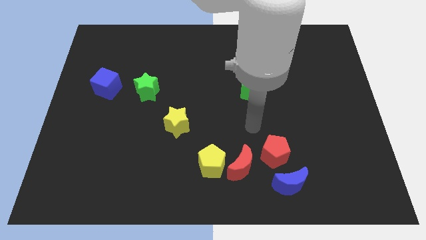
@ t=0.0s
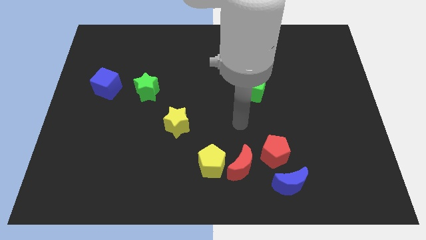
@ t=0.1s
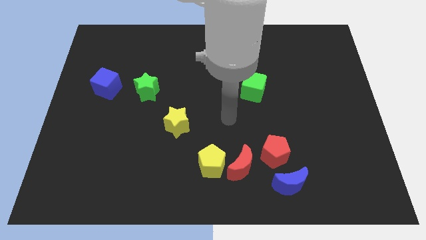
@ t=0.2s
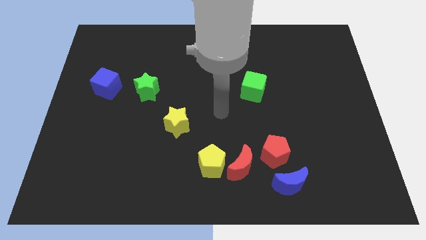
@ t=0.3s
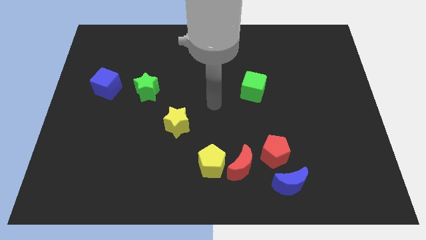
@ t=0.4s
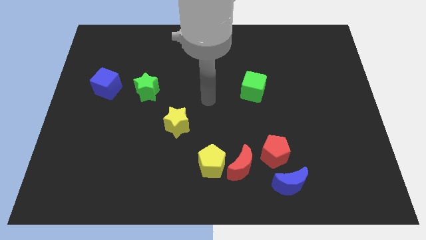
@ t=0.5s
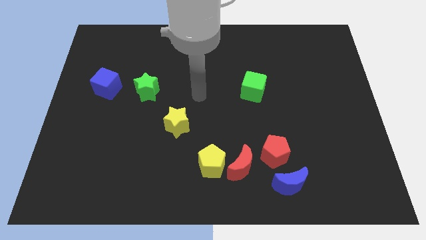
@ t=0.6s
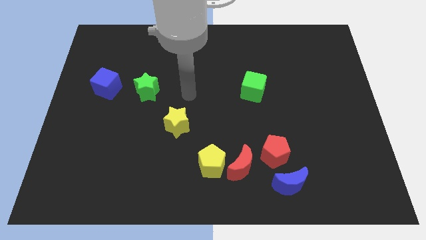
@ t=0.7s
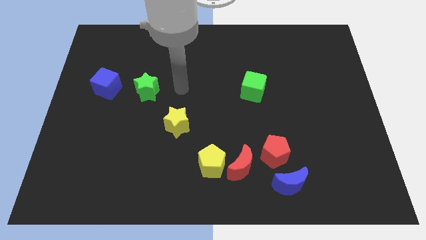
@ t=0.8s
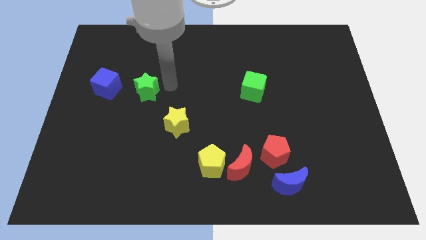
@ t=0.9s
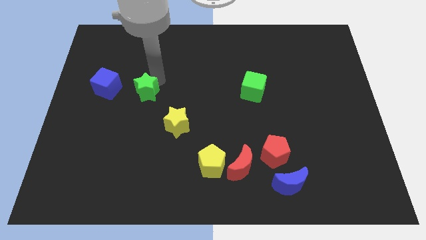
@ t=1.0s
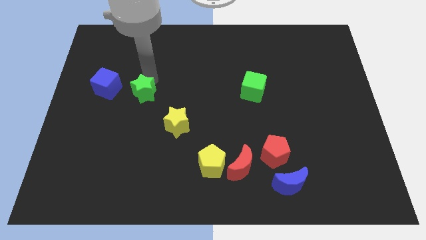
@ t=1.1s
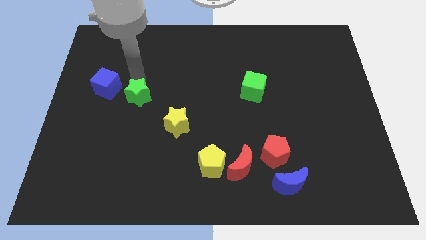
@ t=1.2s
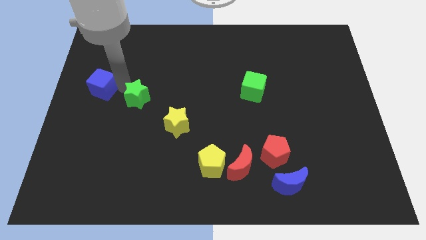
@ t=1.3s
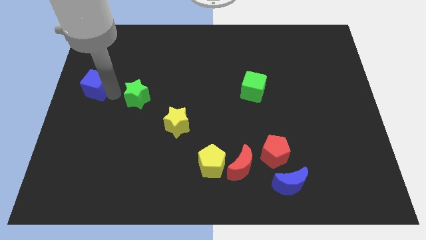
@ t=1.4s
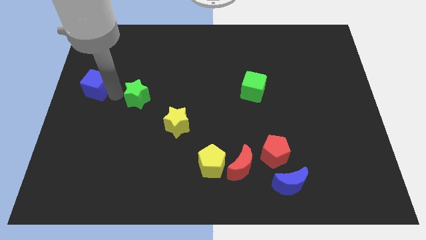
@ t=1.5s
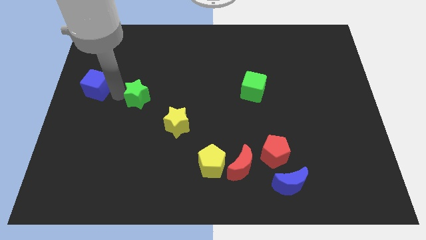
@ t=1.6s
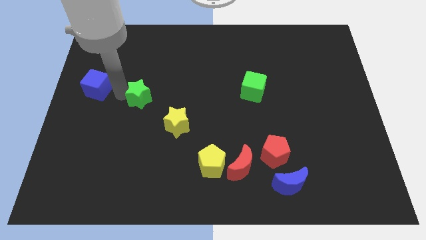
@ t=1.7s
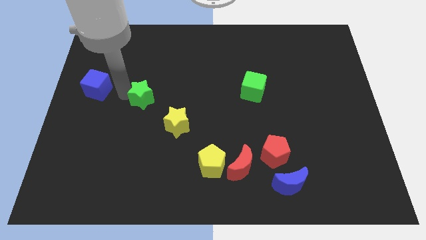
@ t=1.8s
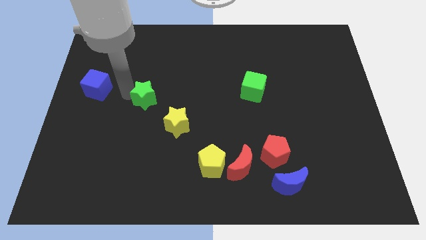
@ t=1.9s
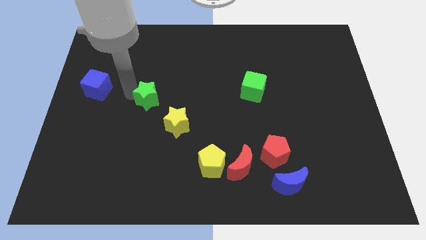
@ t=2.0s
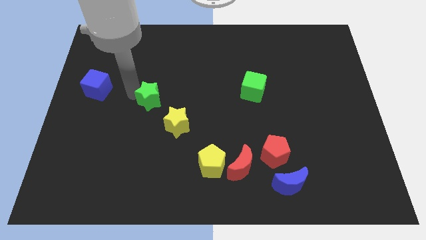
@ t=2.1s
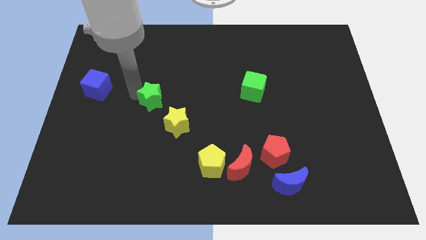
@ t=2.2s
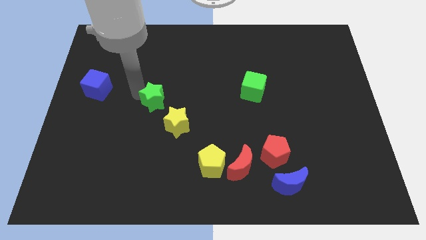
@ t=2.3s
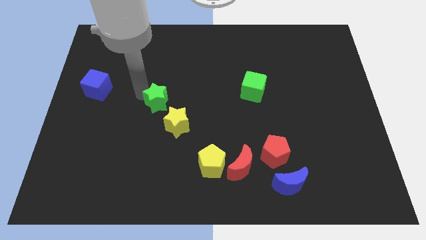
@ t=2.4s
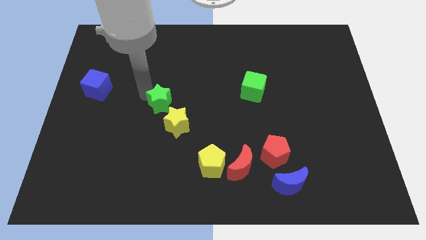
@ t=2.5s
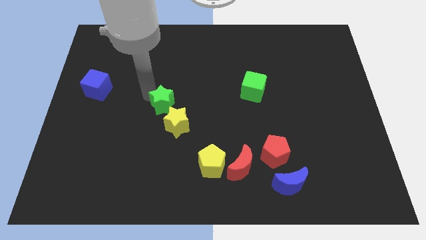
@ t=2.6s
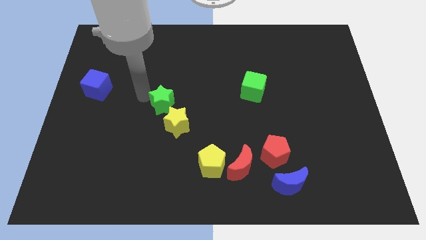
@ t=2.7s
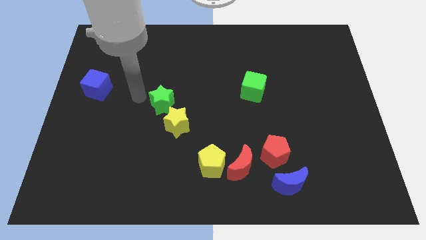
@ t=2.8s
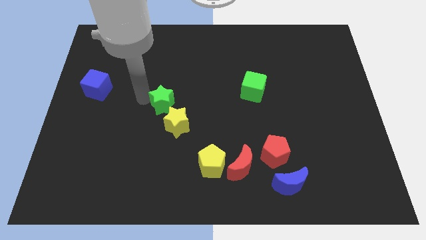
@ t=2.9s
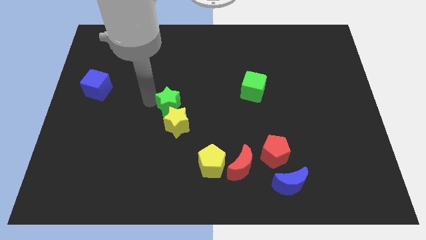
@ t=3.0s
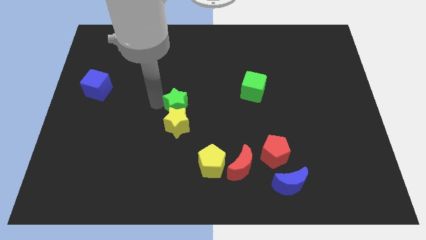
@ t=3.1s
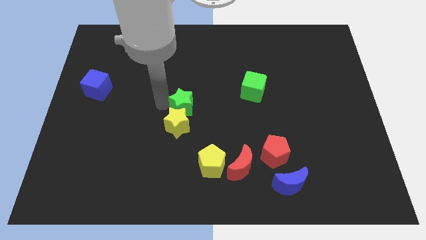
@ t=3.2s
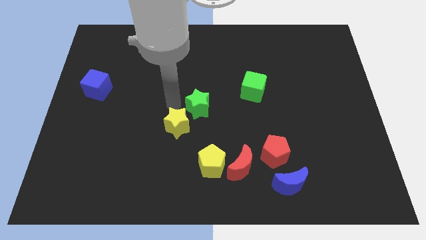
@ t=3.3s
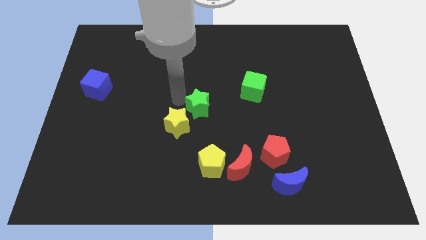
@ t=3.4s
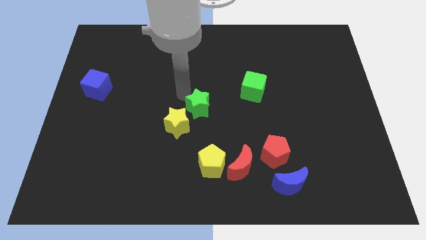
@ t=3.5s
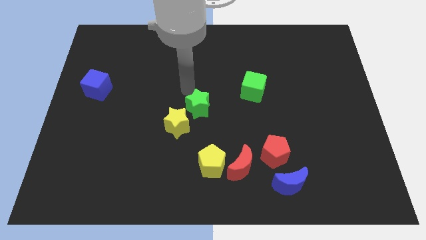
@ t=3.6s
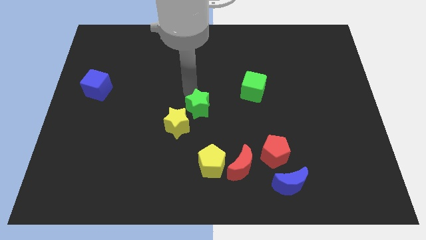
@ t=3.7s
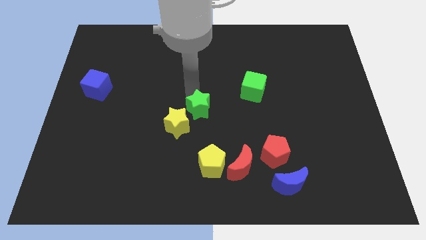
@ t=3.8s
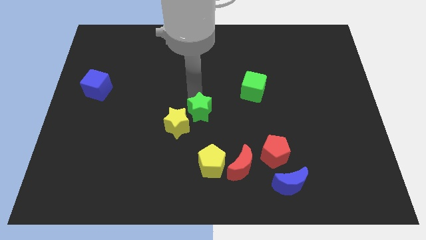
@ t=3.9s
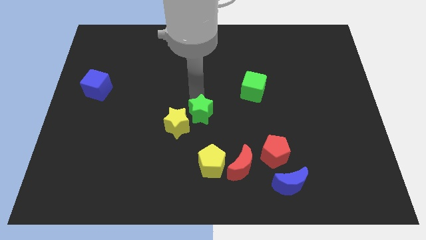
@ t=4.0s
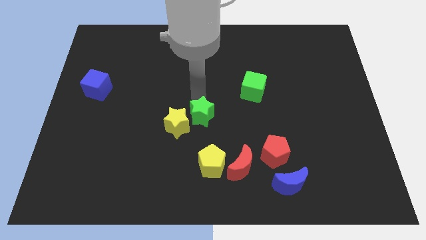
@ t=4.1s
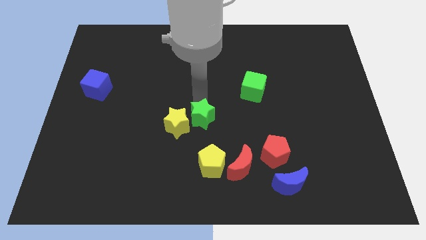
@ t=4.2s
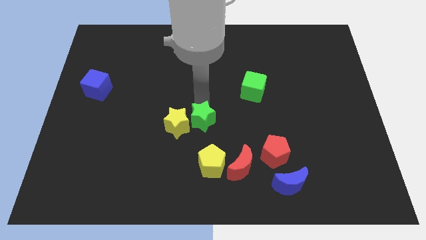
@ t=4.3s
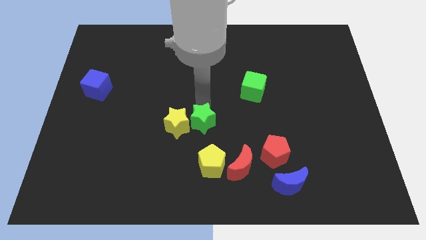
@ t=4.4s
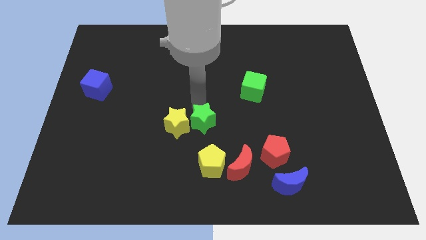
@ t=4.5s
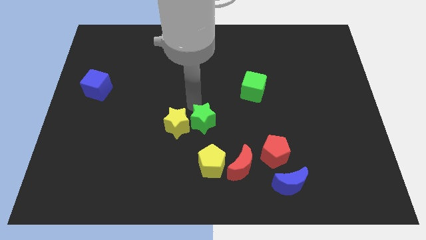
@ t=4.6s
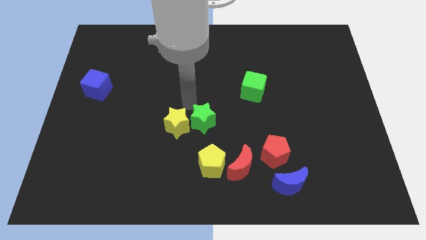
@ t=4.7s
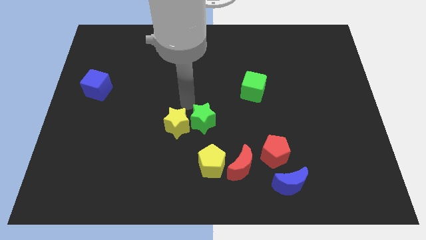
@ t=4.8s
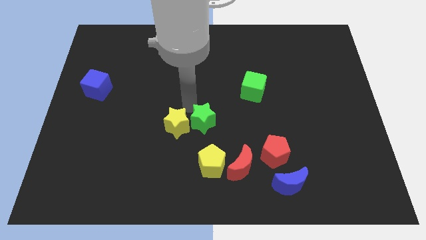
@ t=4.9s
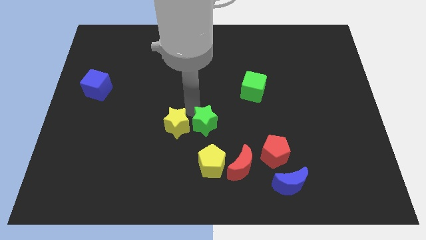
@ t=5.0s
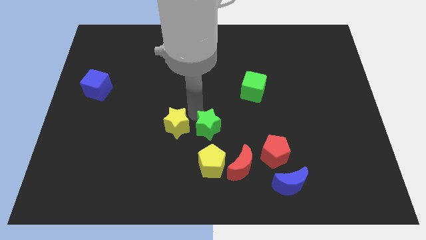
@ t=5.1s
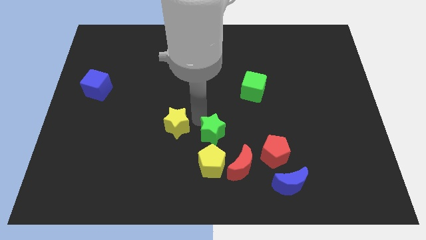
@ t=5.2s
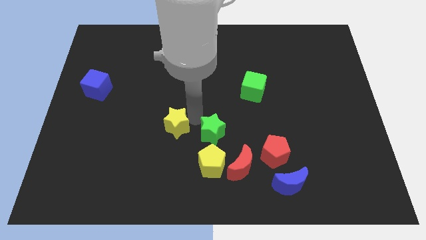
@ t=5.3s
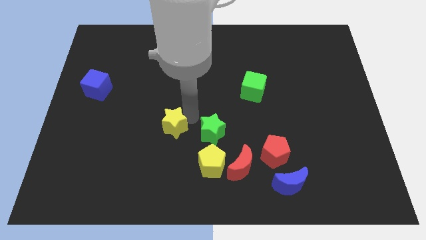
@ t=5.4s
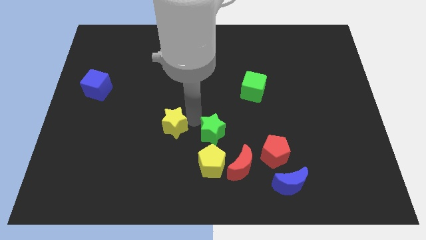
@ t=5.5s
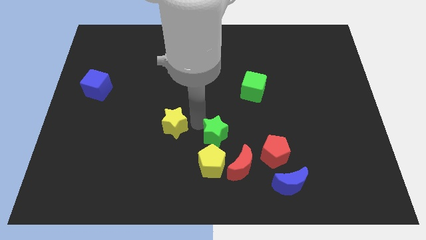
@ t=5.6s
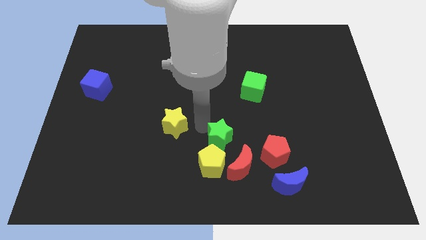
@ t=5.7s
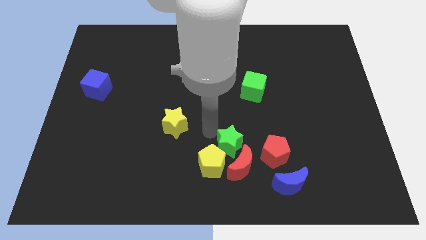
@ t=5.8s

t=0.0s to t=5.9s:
push the green star next to the red moon
